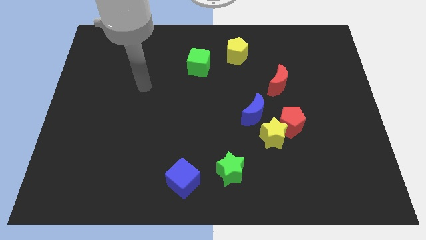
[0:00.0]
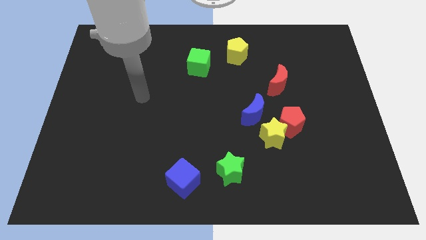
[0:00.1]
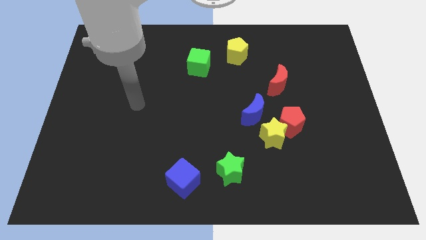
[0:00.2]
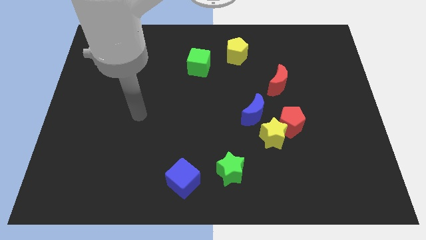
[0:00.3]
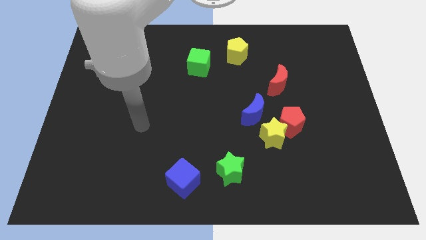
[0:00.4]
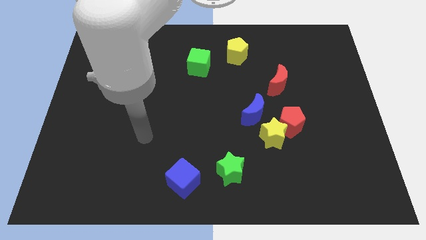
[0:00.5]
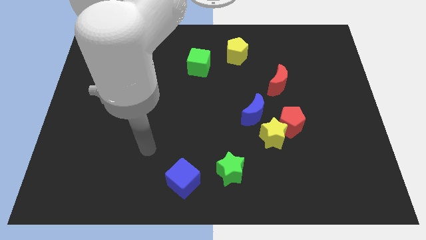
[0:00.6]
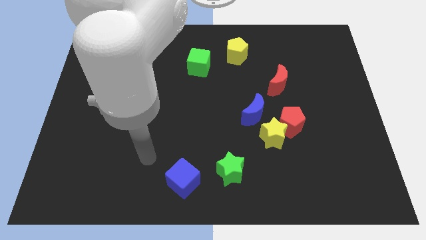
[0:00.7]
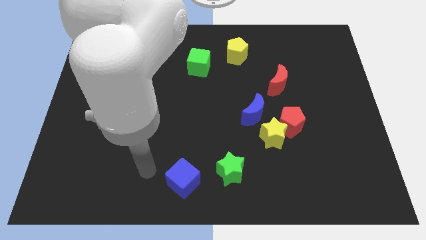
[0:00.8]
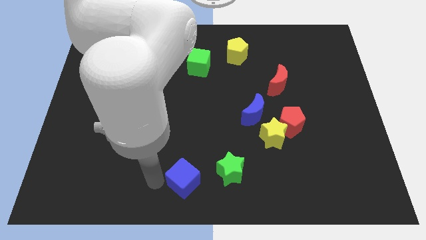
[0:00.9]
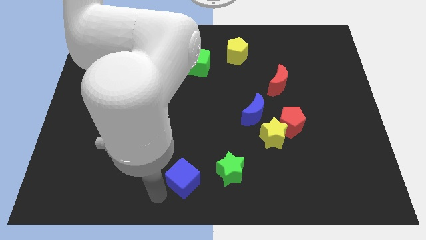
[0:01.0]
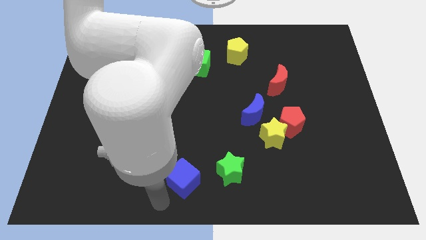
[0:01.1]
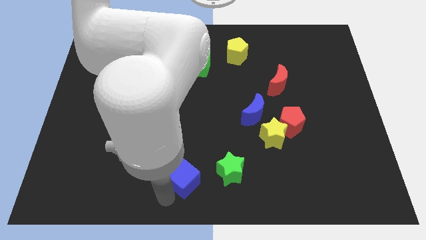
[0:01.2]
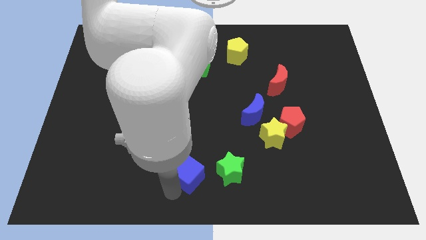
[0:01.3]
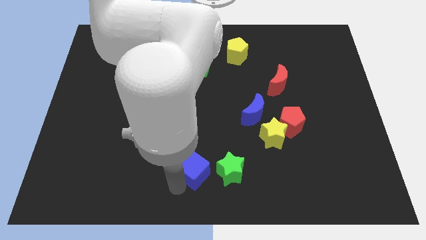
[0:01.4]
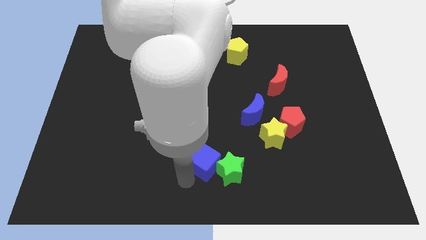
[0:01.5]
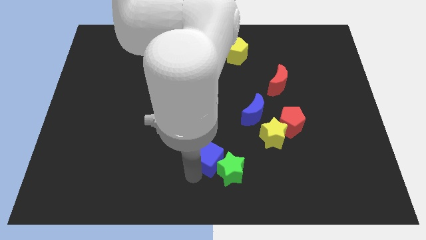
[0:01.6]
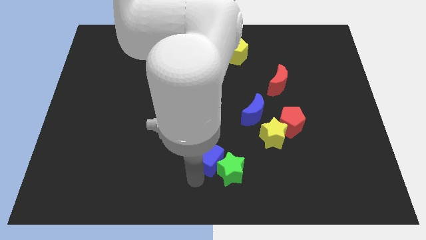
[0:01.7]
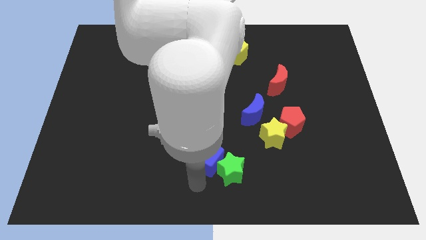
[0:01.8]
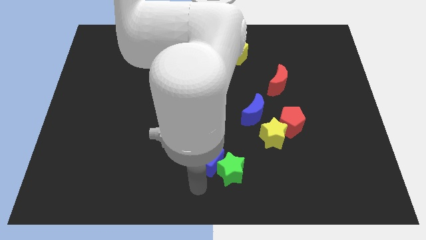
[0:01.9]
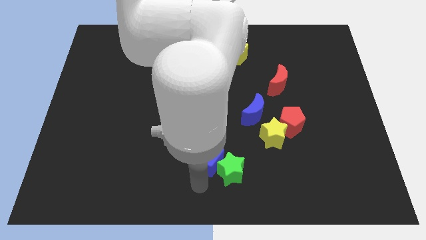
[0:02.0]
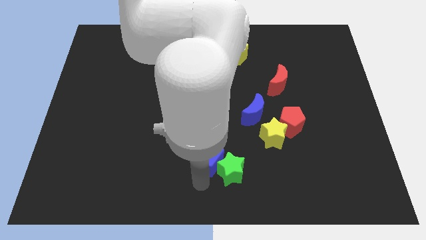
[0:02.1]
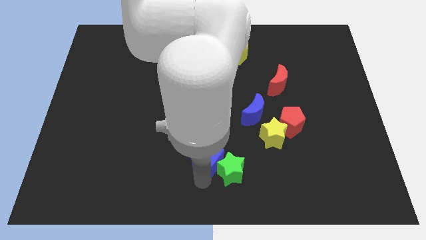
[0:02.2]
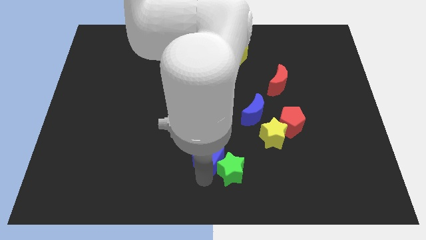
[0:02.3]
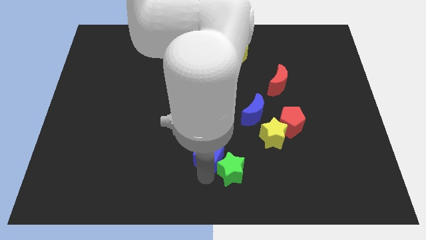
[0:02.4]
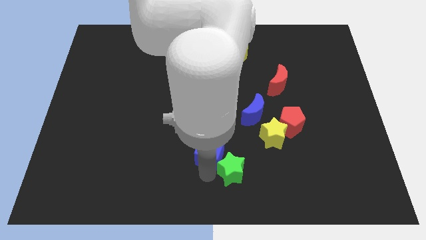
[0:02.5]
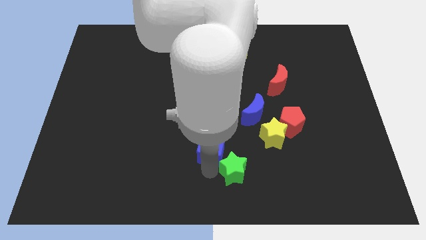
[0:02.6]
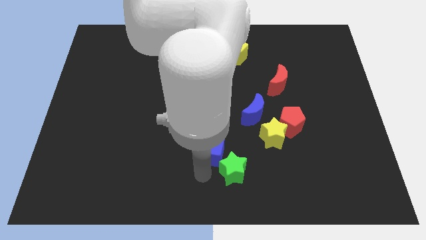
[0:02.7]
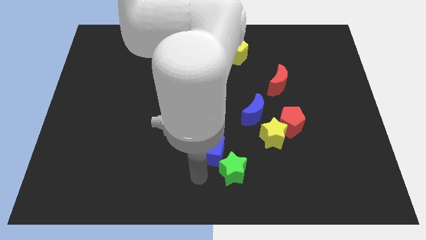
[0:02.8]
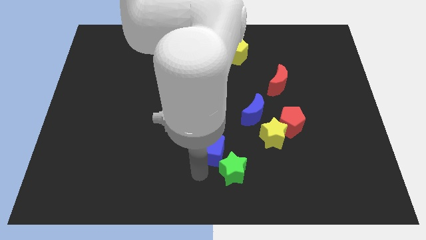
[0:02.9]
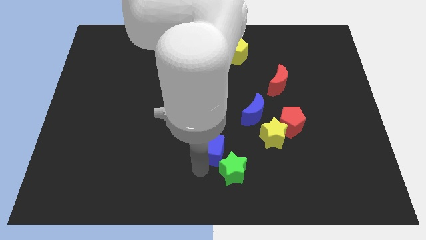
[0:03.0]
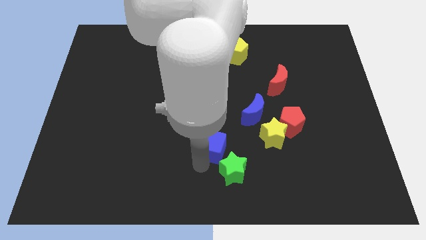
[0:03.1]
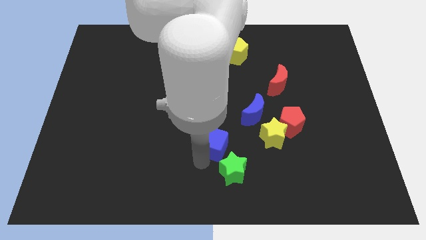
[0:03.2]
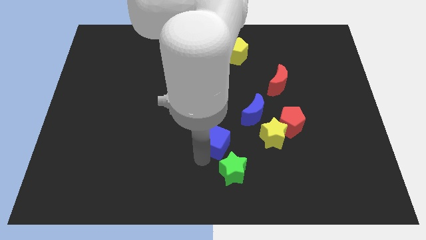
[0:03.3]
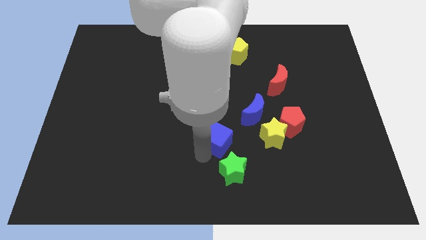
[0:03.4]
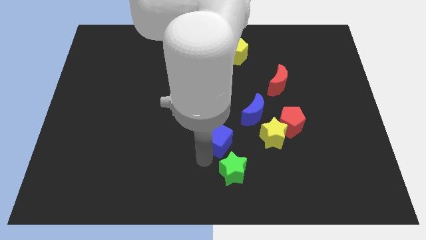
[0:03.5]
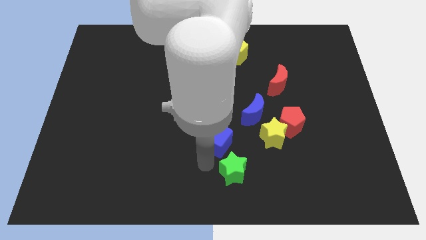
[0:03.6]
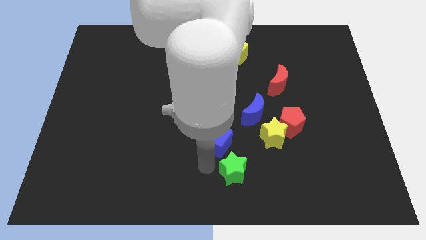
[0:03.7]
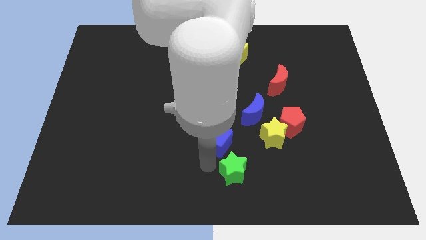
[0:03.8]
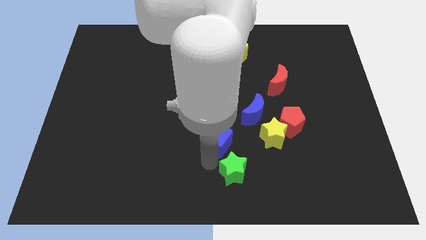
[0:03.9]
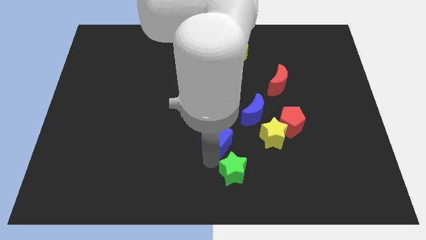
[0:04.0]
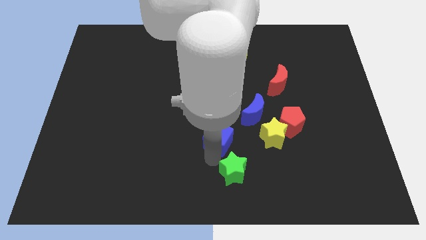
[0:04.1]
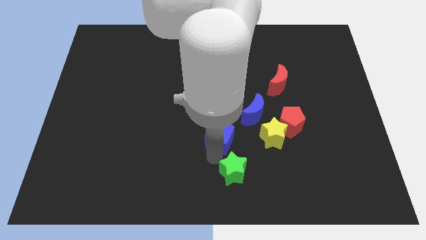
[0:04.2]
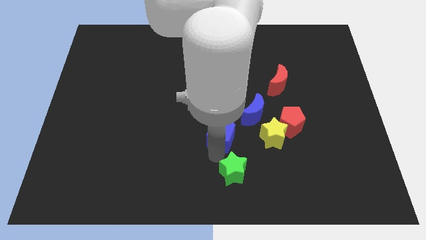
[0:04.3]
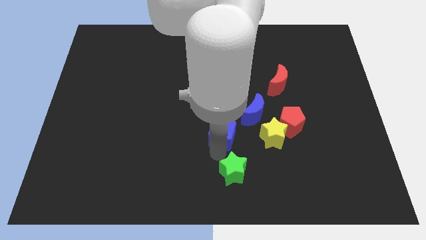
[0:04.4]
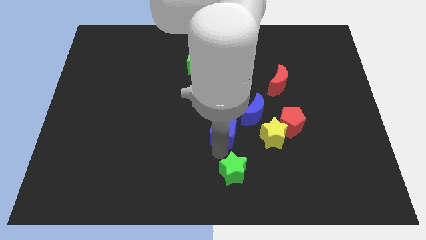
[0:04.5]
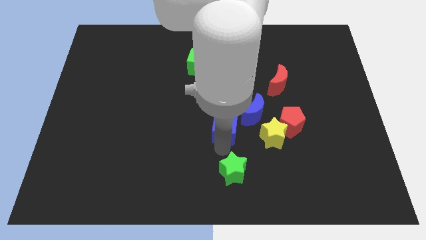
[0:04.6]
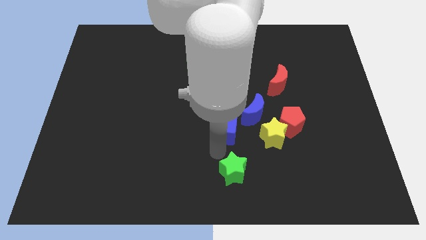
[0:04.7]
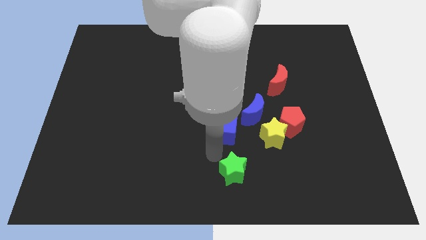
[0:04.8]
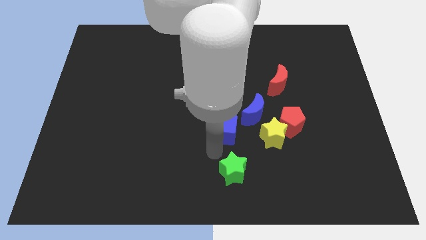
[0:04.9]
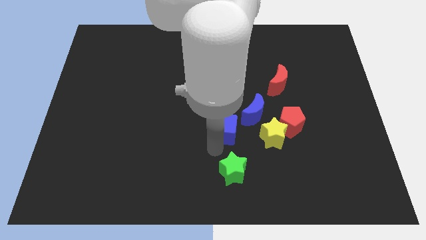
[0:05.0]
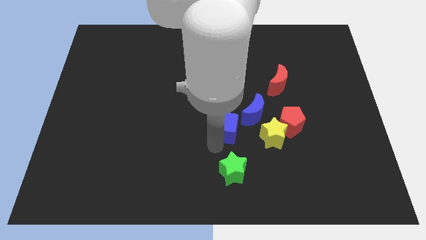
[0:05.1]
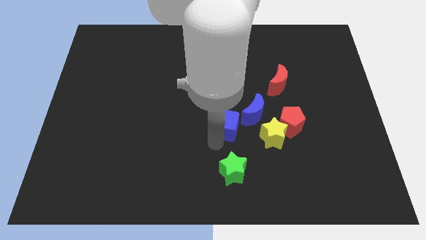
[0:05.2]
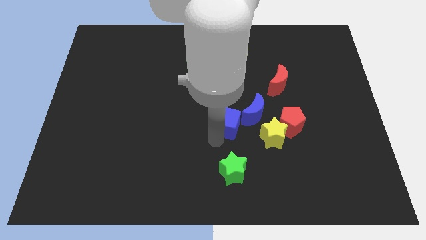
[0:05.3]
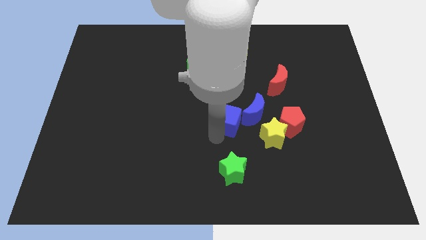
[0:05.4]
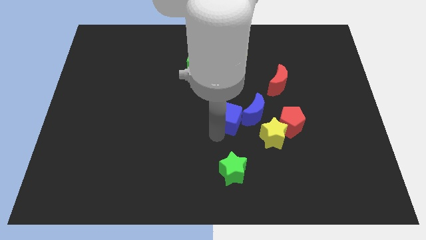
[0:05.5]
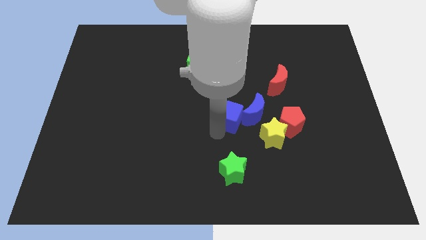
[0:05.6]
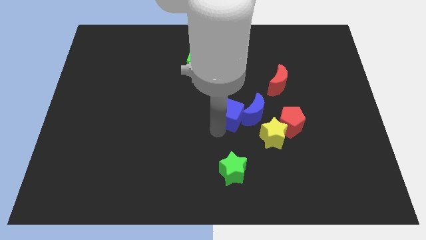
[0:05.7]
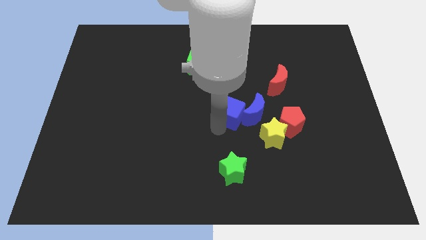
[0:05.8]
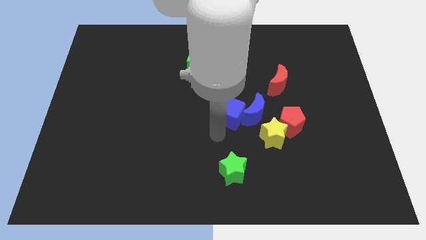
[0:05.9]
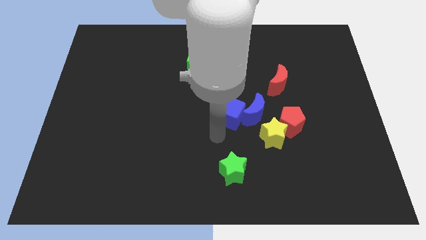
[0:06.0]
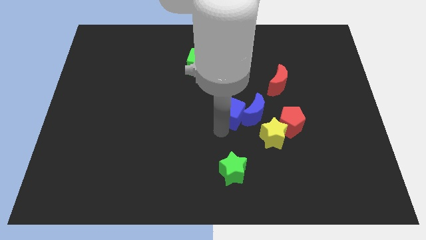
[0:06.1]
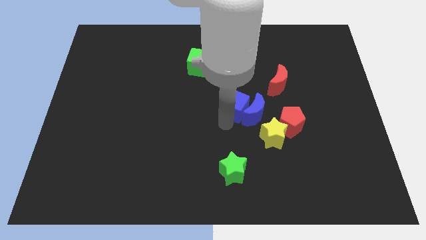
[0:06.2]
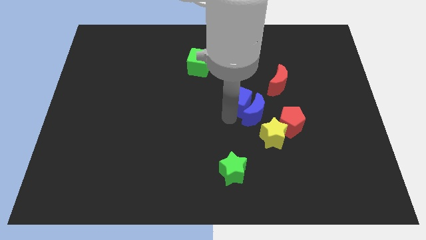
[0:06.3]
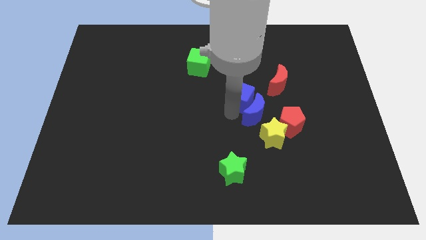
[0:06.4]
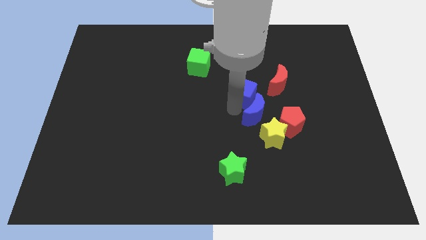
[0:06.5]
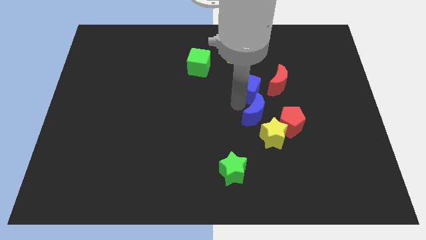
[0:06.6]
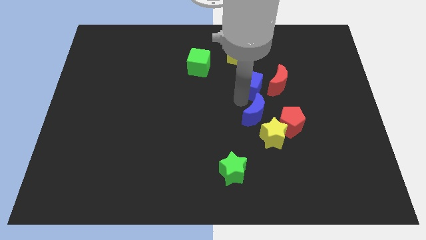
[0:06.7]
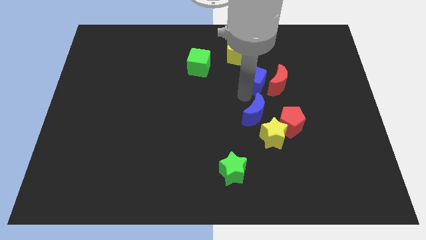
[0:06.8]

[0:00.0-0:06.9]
slide the blue cube to the top left side of the red moon
